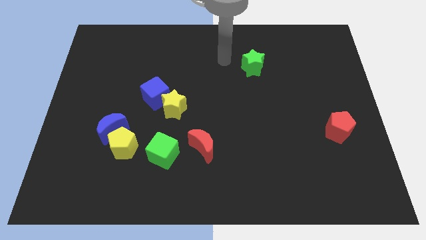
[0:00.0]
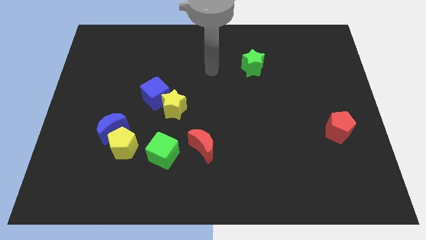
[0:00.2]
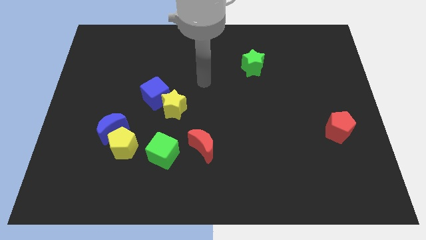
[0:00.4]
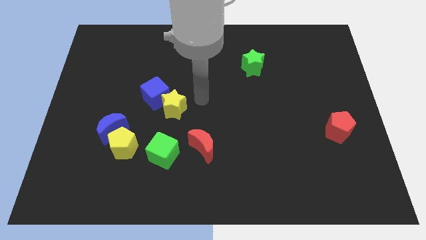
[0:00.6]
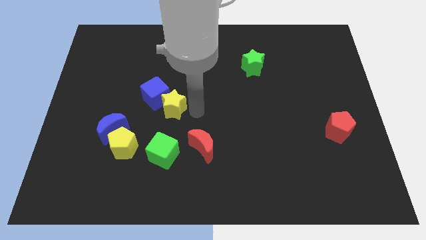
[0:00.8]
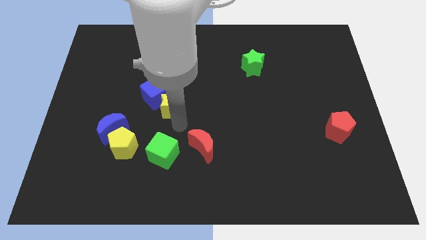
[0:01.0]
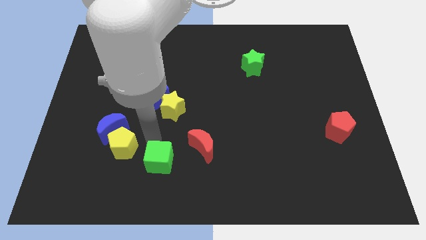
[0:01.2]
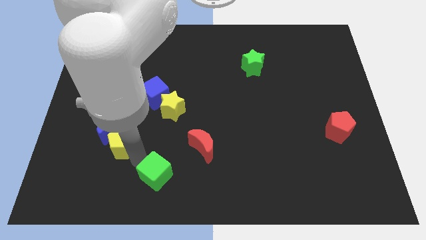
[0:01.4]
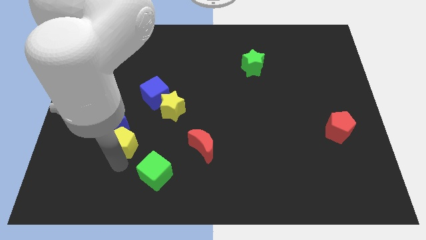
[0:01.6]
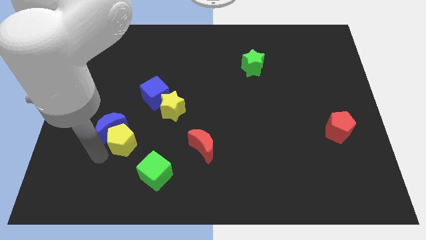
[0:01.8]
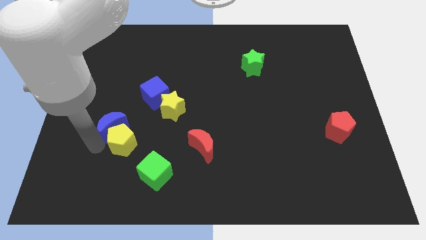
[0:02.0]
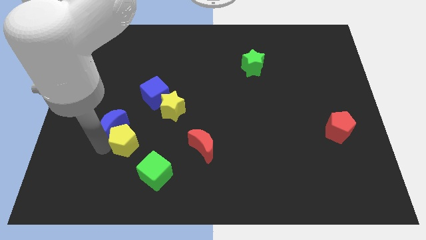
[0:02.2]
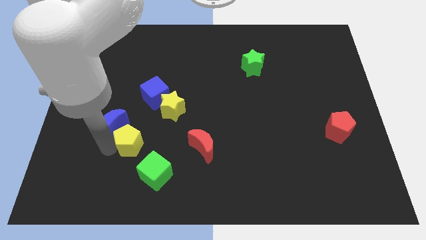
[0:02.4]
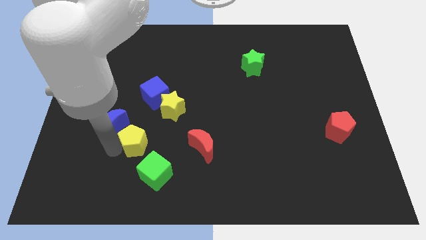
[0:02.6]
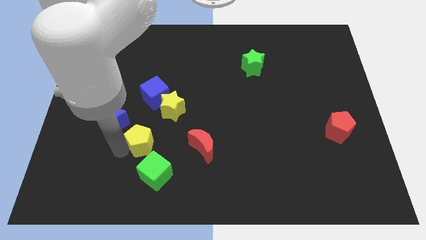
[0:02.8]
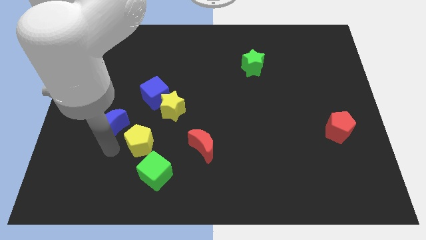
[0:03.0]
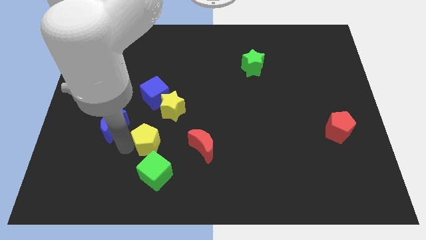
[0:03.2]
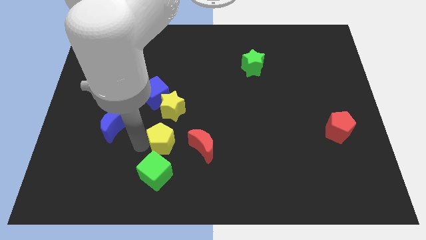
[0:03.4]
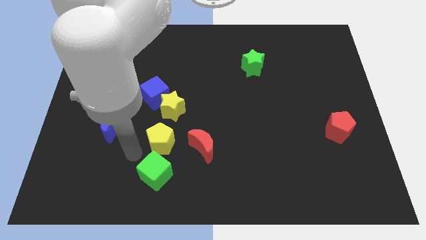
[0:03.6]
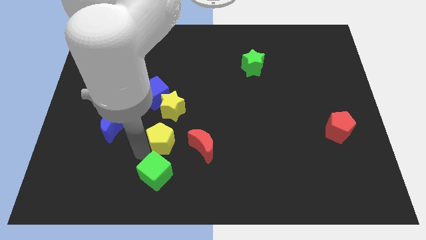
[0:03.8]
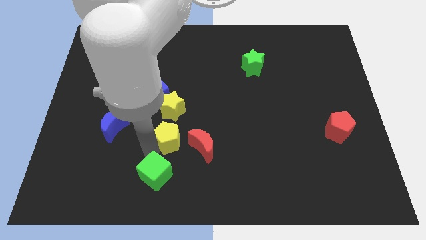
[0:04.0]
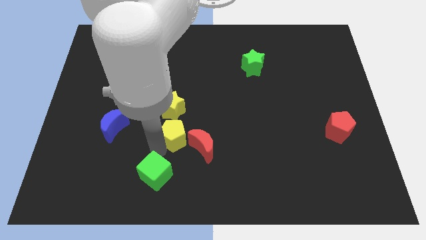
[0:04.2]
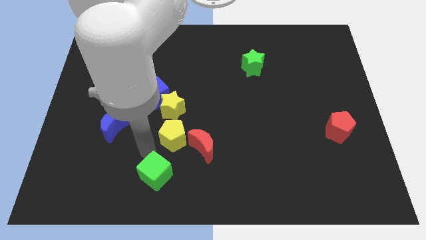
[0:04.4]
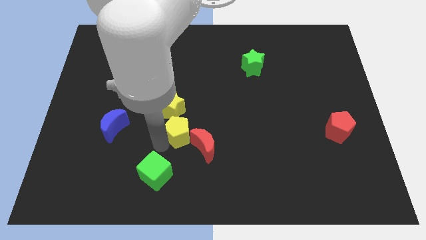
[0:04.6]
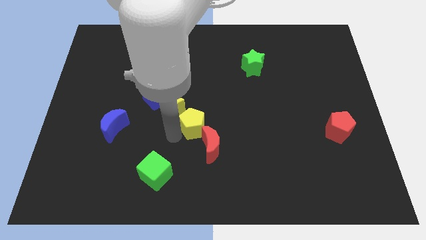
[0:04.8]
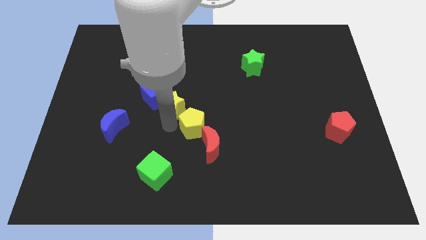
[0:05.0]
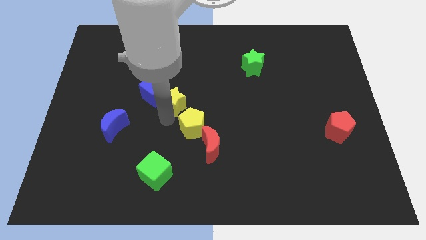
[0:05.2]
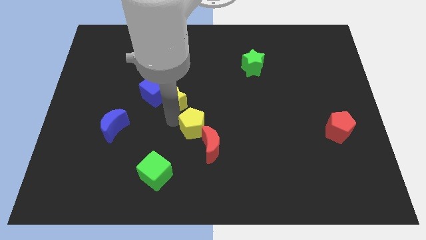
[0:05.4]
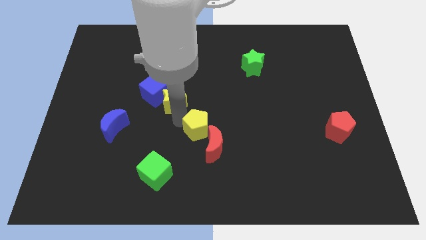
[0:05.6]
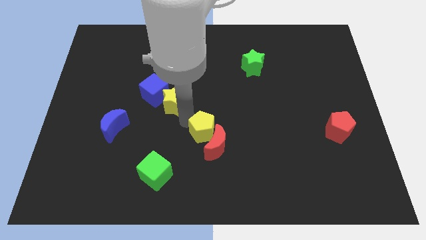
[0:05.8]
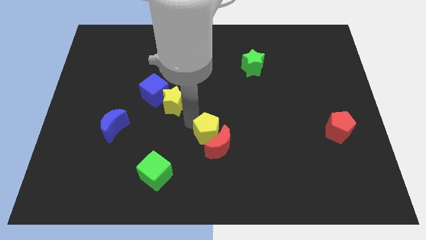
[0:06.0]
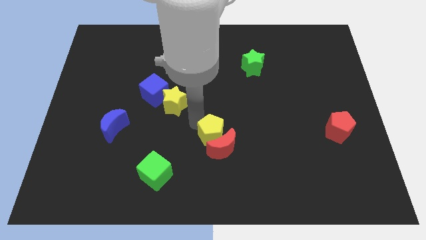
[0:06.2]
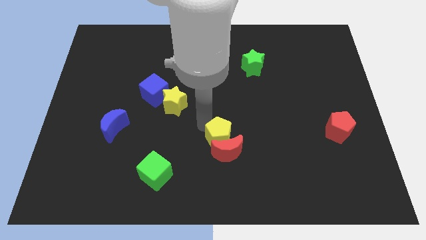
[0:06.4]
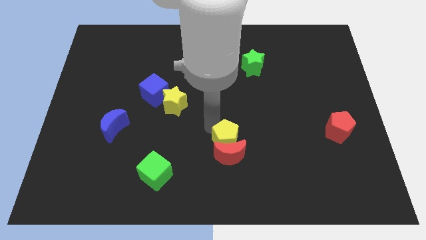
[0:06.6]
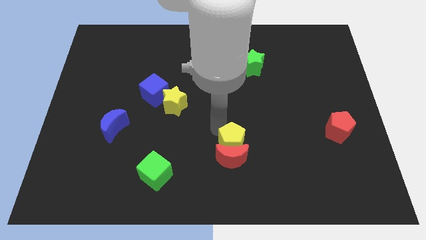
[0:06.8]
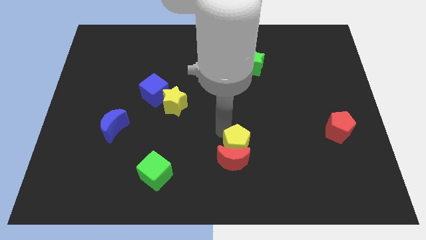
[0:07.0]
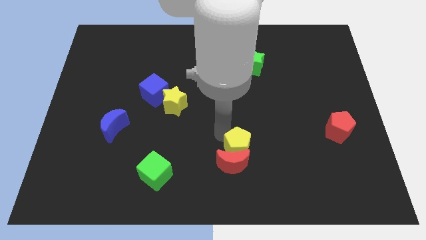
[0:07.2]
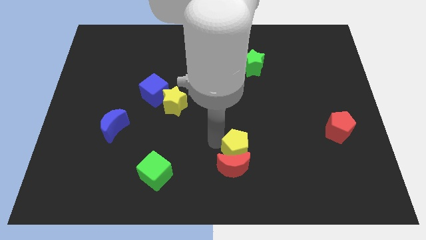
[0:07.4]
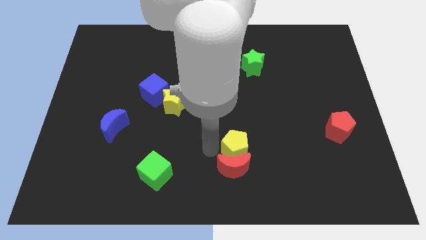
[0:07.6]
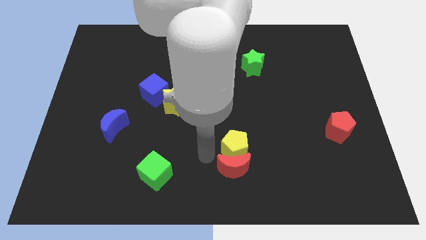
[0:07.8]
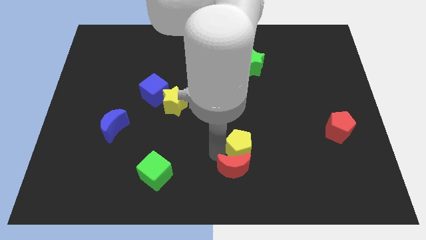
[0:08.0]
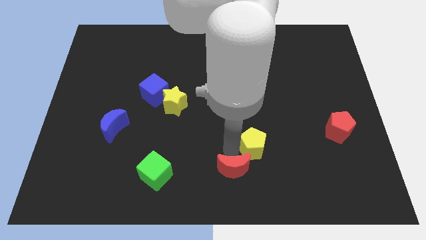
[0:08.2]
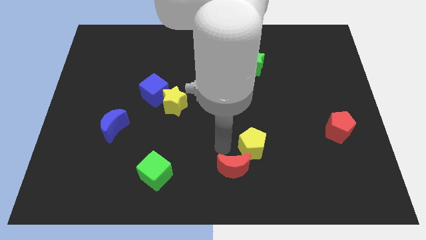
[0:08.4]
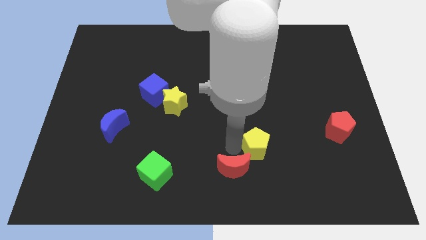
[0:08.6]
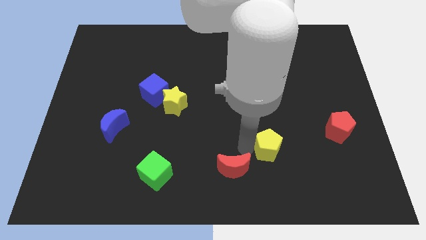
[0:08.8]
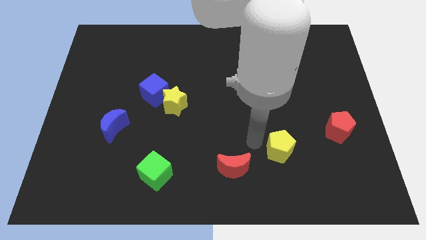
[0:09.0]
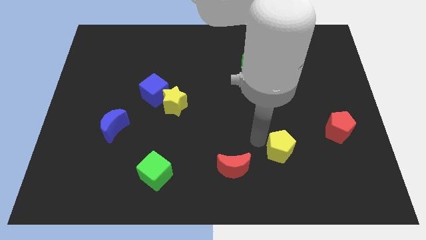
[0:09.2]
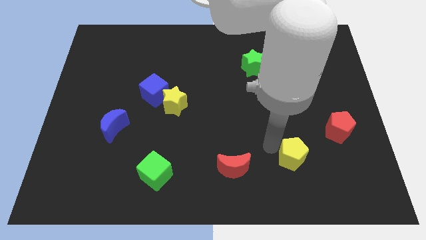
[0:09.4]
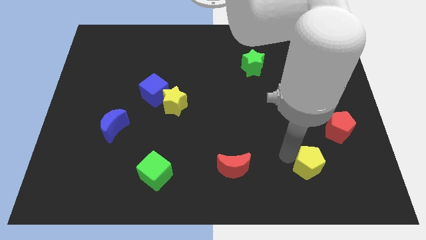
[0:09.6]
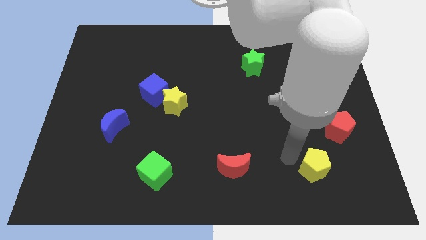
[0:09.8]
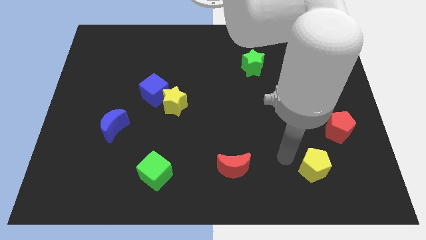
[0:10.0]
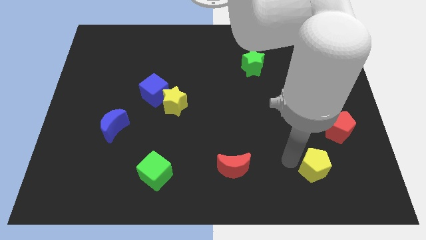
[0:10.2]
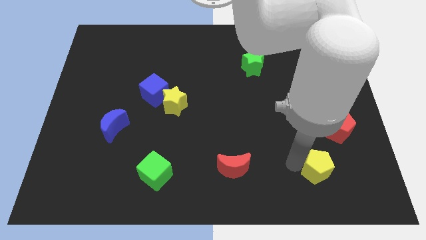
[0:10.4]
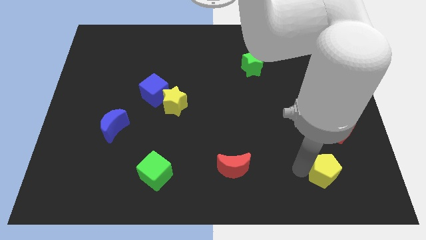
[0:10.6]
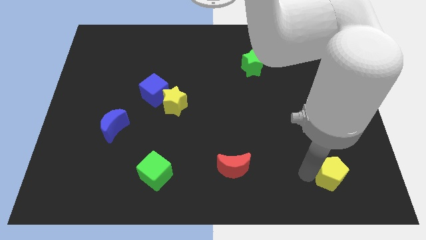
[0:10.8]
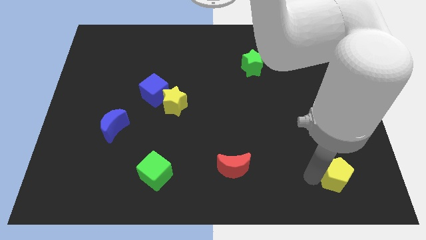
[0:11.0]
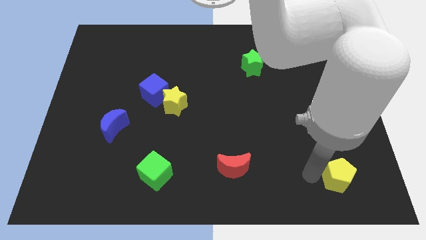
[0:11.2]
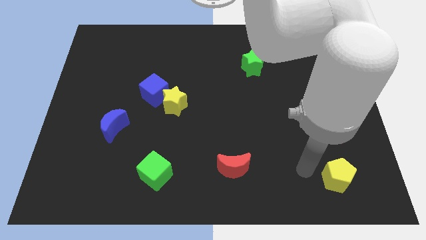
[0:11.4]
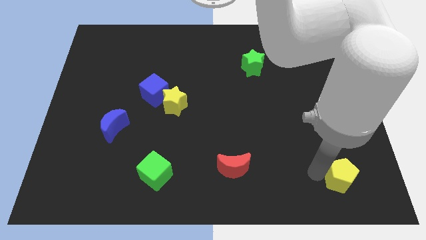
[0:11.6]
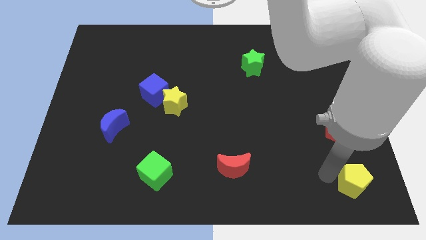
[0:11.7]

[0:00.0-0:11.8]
slide the yellow pentagon to the bottom right of the board
